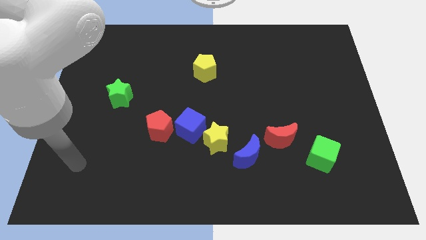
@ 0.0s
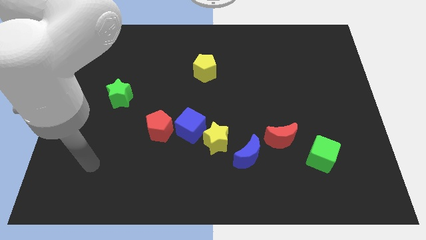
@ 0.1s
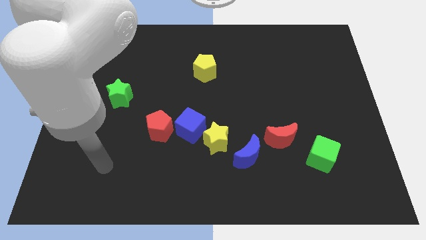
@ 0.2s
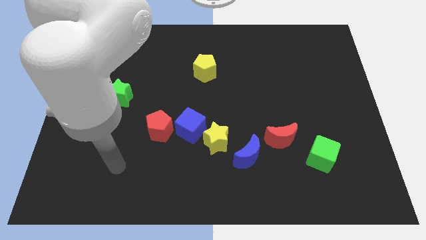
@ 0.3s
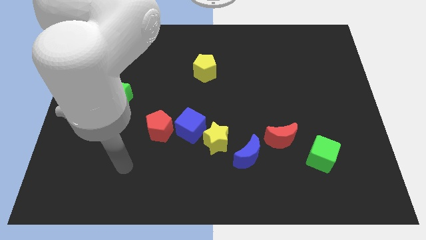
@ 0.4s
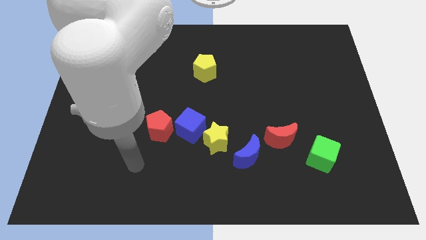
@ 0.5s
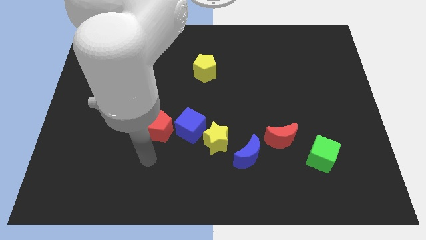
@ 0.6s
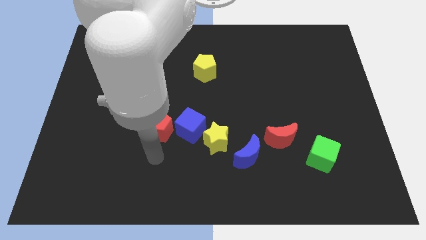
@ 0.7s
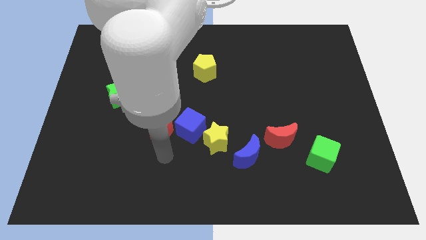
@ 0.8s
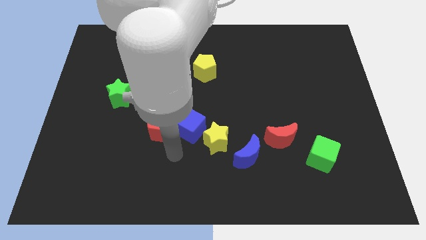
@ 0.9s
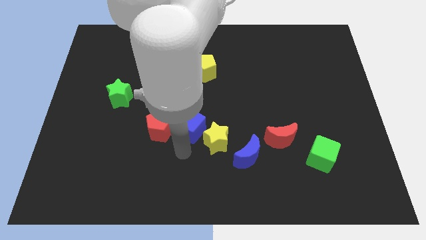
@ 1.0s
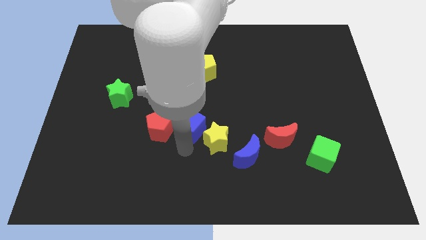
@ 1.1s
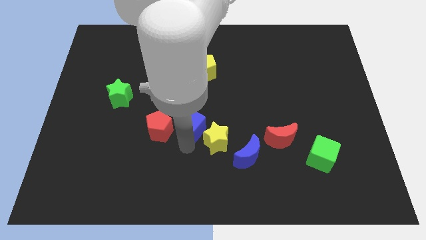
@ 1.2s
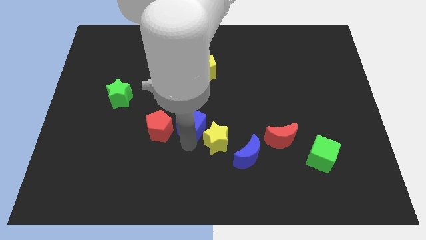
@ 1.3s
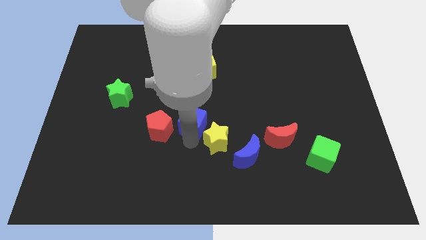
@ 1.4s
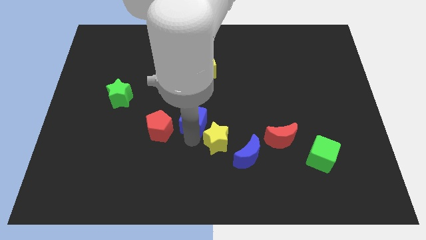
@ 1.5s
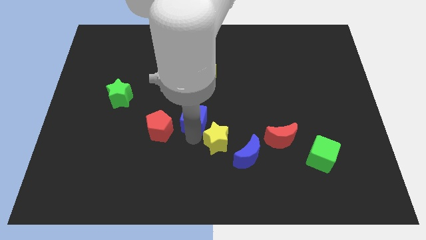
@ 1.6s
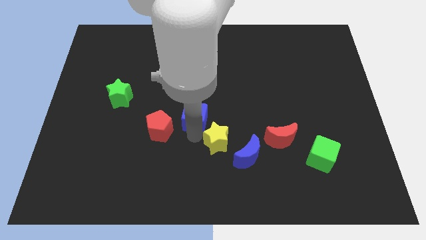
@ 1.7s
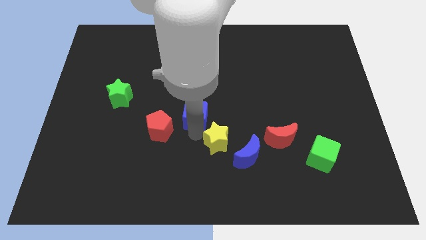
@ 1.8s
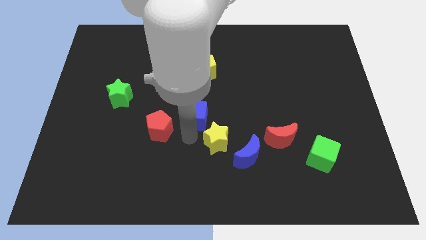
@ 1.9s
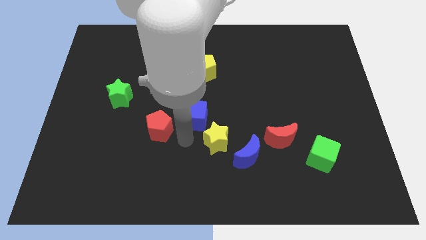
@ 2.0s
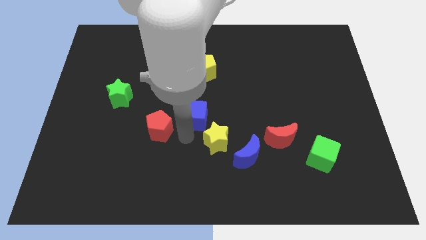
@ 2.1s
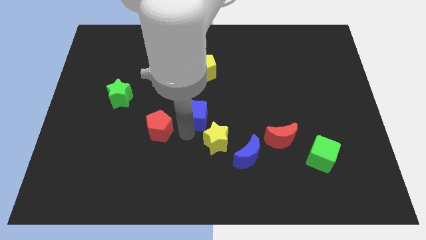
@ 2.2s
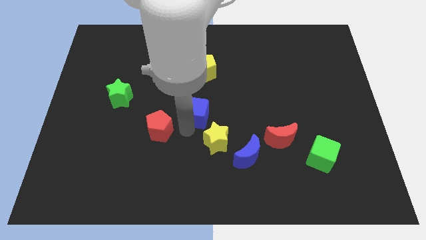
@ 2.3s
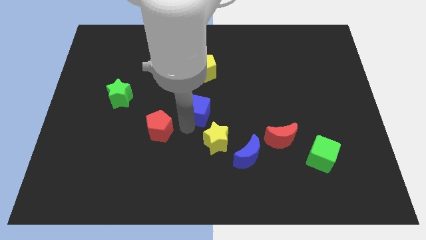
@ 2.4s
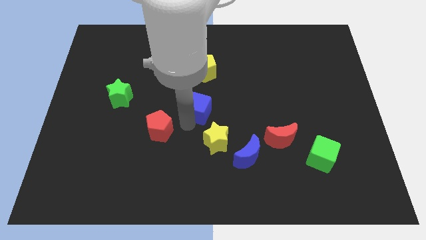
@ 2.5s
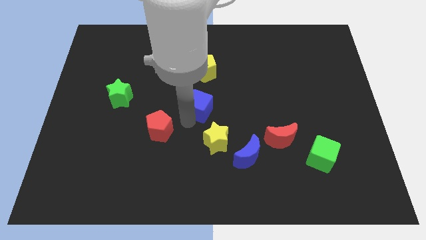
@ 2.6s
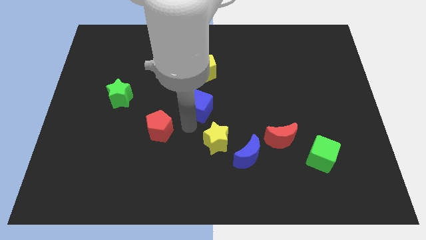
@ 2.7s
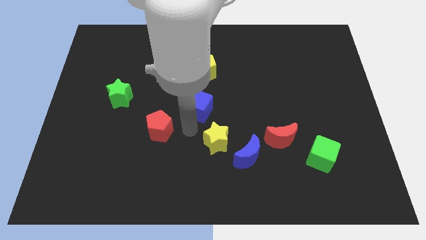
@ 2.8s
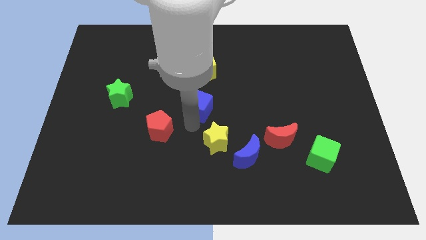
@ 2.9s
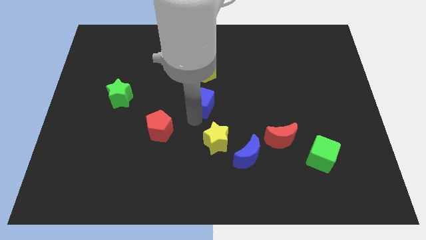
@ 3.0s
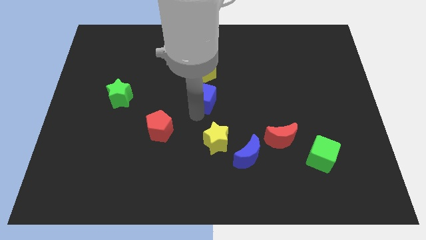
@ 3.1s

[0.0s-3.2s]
pull the blue cube apart from the yellow star and red pentagon

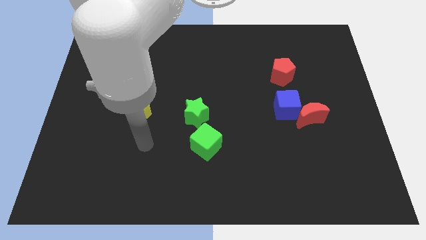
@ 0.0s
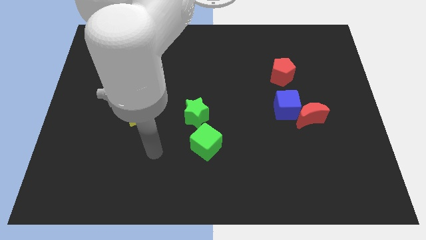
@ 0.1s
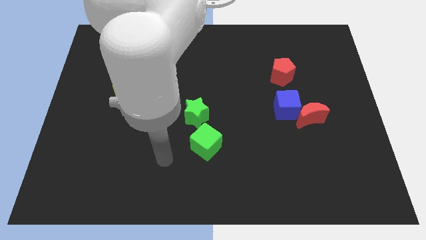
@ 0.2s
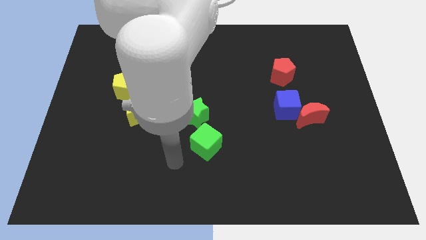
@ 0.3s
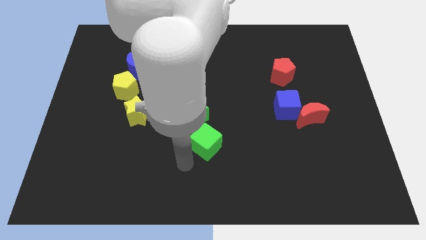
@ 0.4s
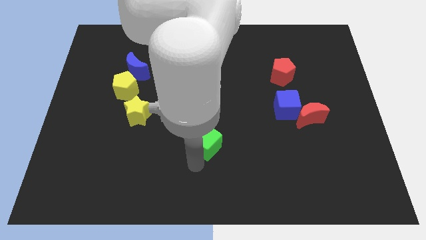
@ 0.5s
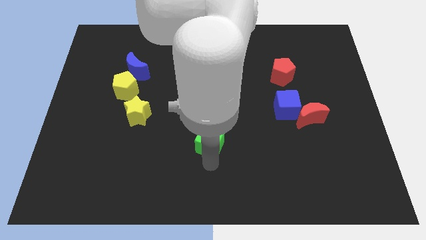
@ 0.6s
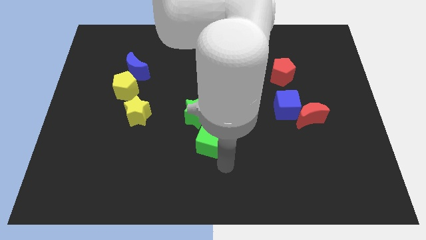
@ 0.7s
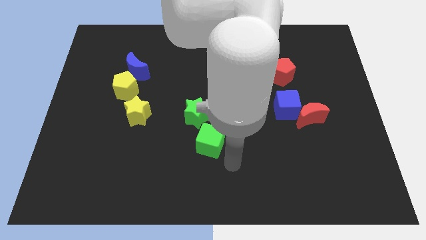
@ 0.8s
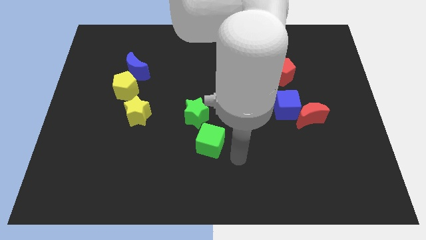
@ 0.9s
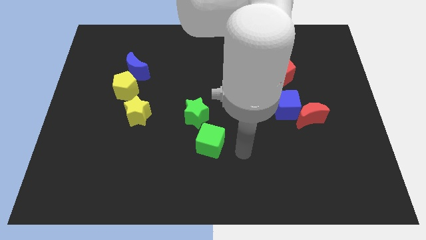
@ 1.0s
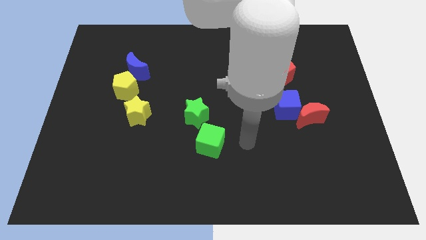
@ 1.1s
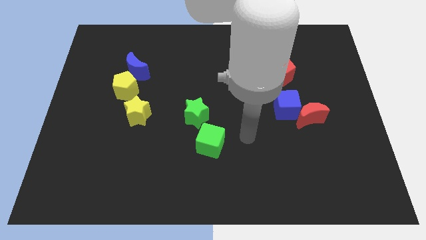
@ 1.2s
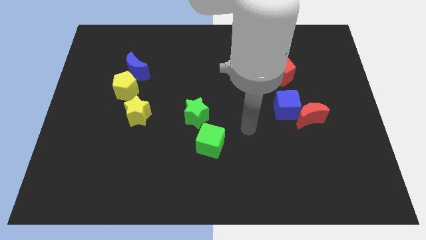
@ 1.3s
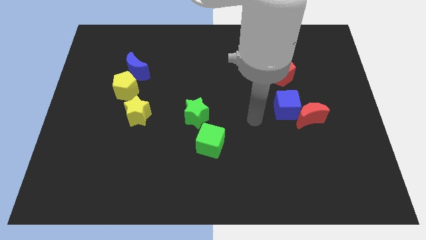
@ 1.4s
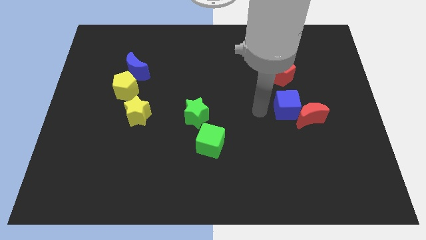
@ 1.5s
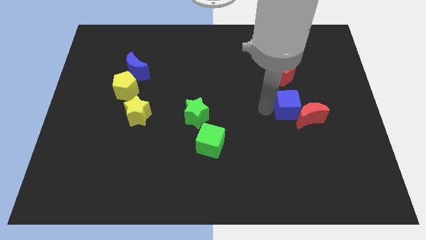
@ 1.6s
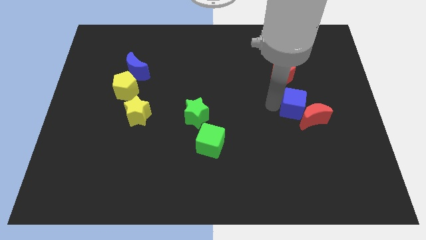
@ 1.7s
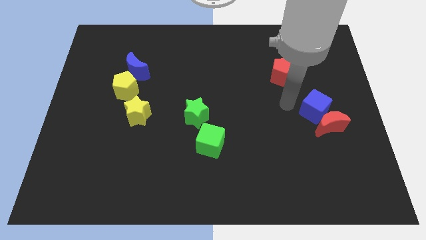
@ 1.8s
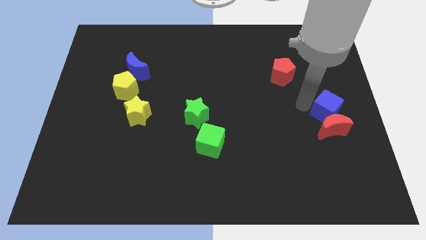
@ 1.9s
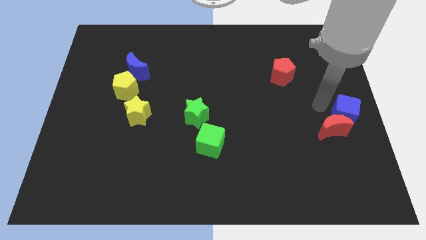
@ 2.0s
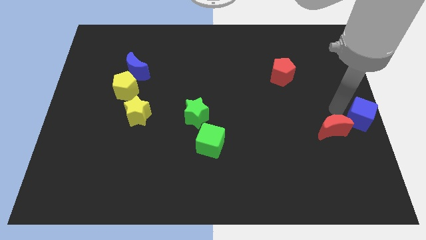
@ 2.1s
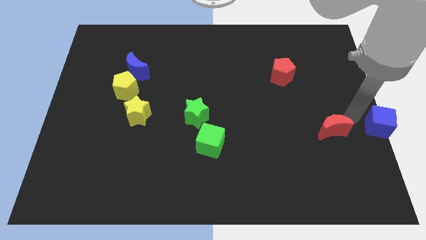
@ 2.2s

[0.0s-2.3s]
separate the red moon from the blue cube

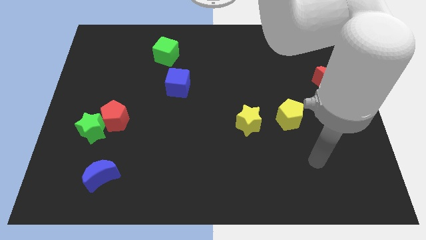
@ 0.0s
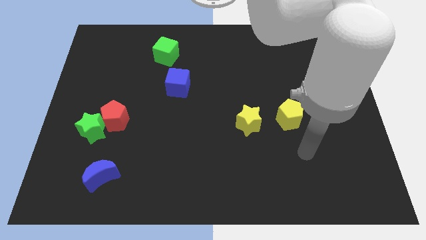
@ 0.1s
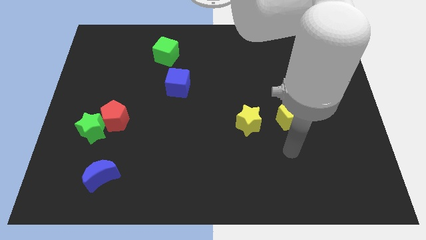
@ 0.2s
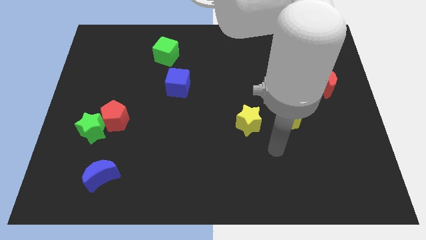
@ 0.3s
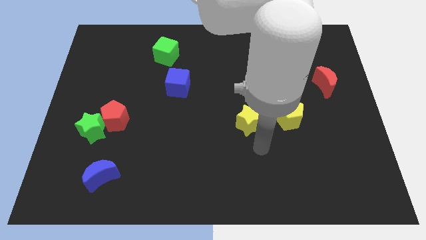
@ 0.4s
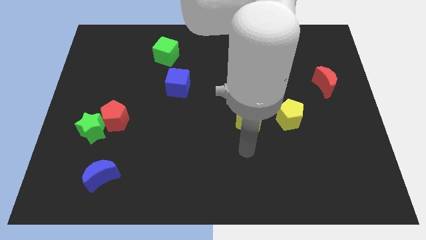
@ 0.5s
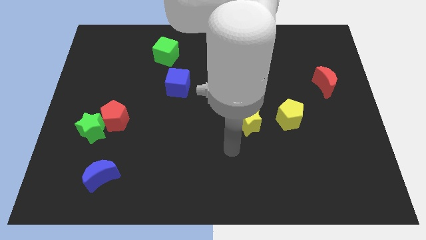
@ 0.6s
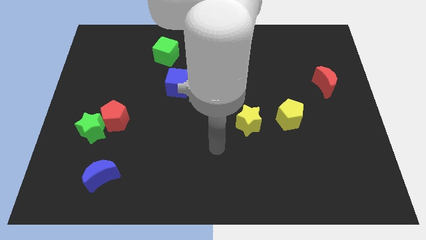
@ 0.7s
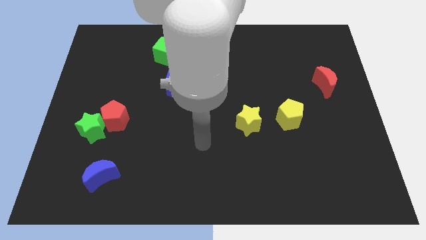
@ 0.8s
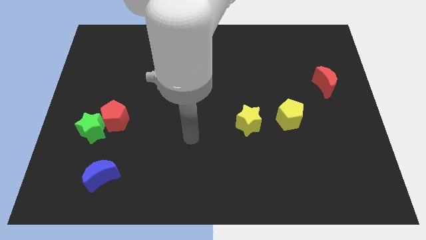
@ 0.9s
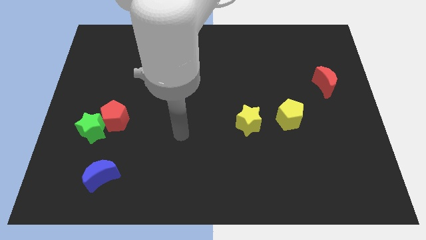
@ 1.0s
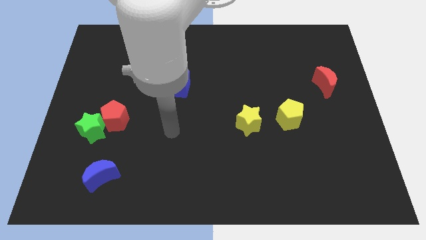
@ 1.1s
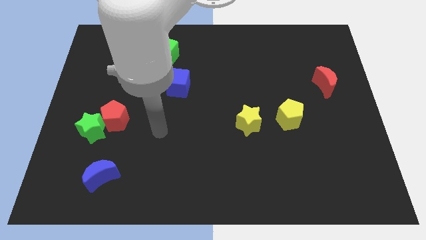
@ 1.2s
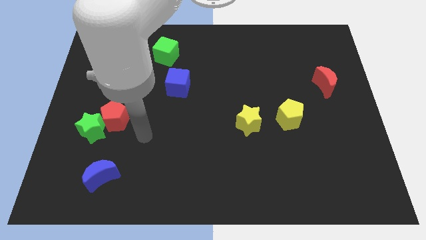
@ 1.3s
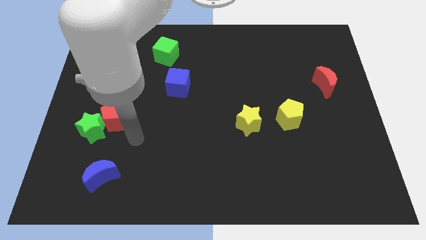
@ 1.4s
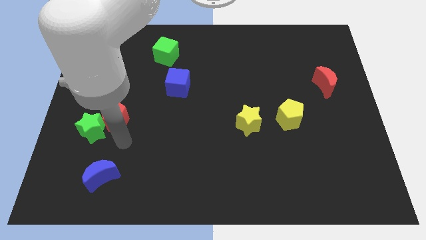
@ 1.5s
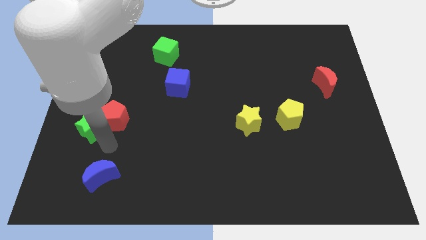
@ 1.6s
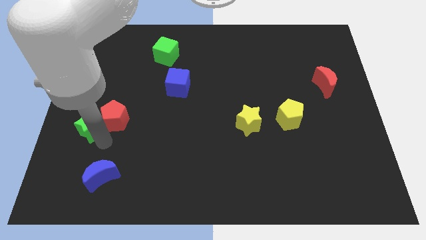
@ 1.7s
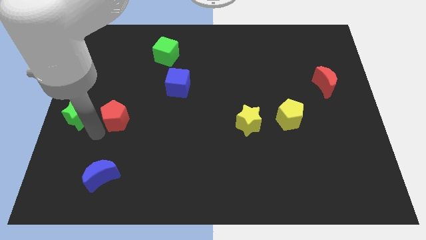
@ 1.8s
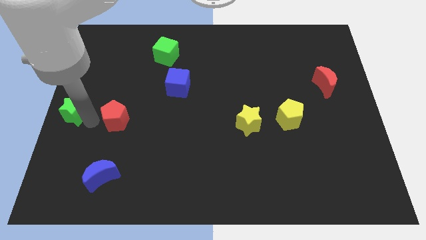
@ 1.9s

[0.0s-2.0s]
move the red pentagon away from the green star

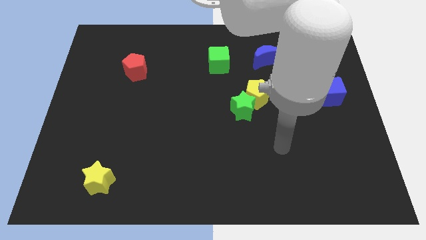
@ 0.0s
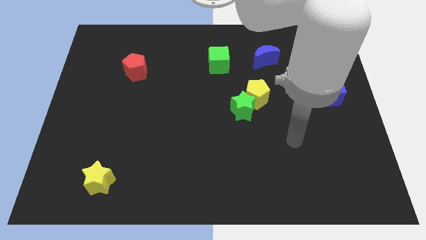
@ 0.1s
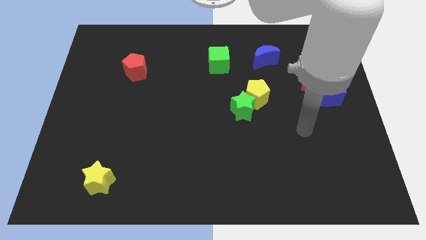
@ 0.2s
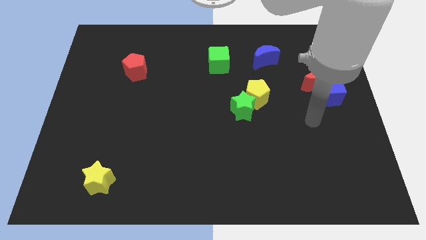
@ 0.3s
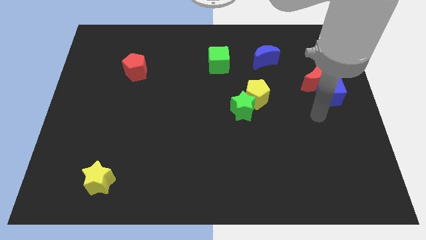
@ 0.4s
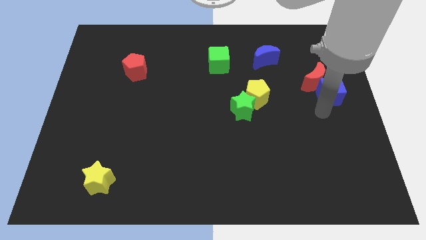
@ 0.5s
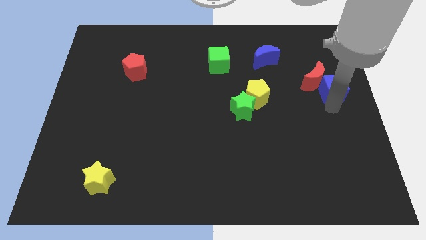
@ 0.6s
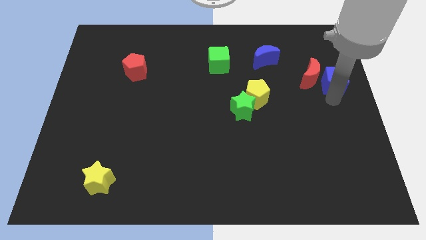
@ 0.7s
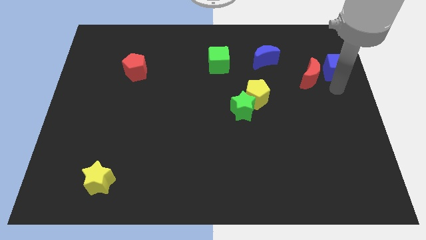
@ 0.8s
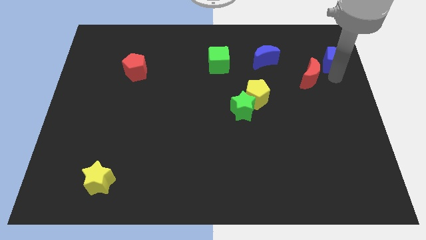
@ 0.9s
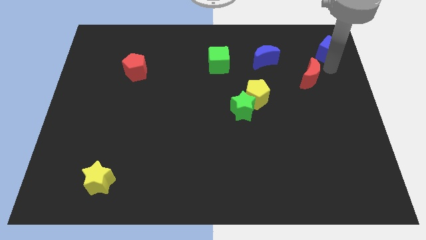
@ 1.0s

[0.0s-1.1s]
move the red moon away from the blue cube

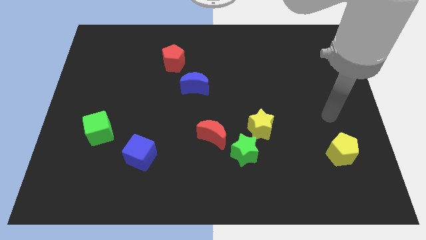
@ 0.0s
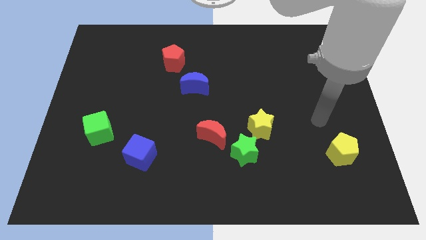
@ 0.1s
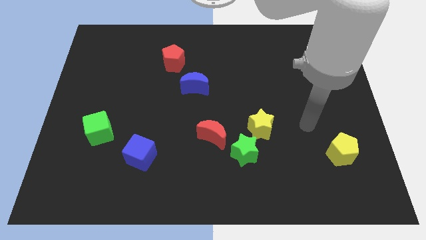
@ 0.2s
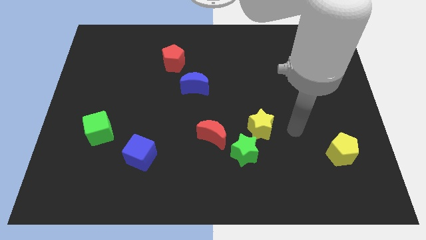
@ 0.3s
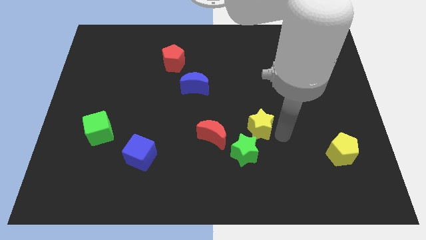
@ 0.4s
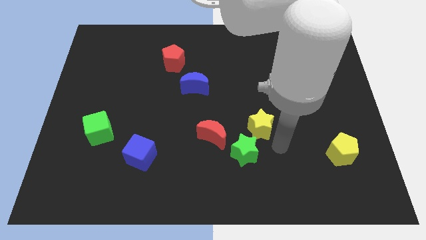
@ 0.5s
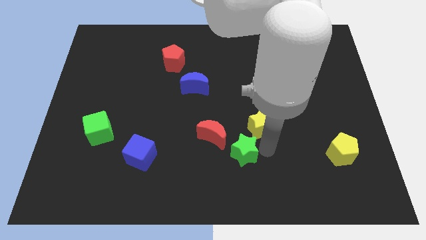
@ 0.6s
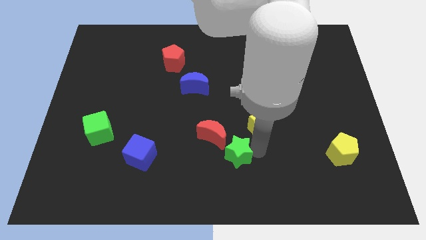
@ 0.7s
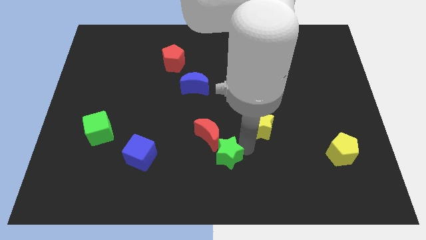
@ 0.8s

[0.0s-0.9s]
separate the yellow star from the green star
